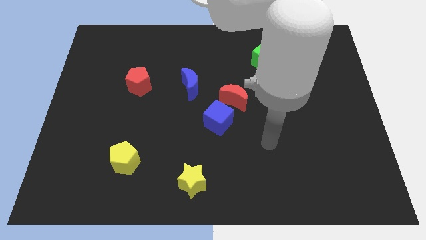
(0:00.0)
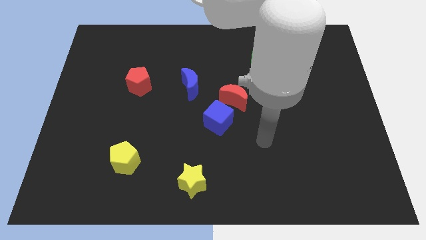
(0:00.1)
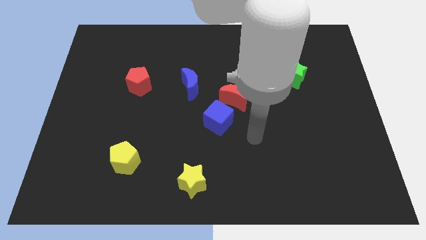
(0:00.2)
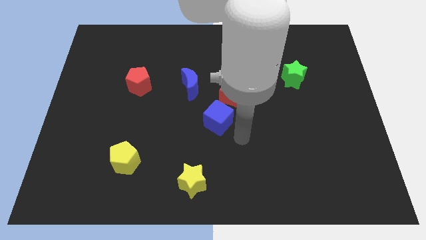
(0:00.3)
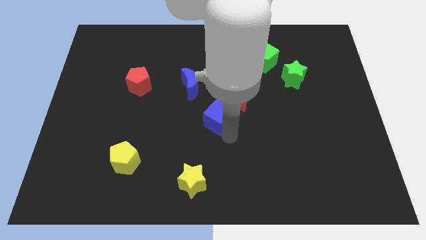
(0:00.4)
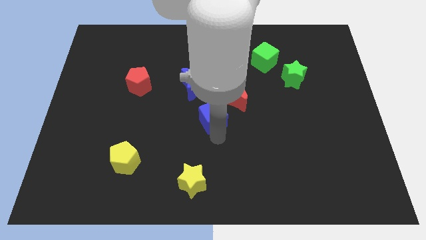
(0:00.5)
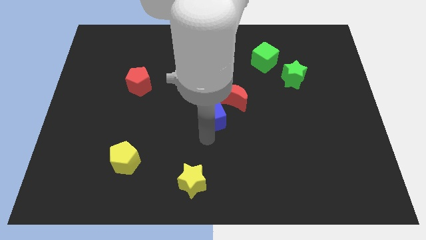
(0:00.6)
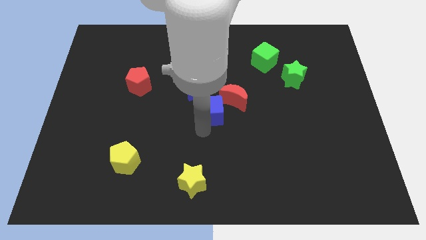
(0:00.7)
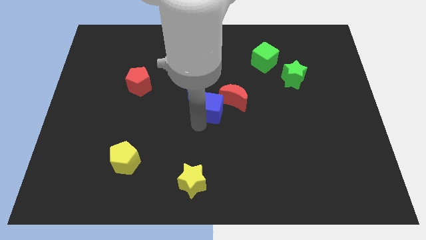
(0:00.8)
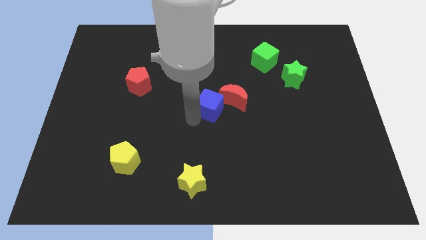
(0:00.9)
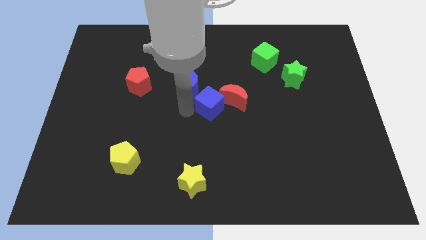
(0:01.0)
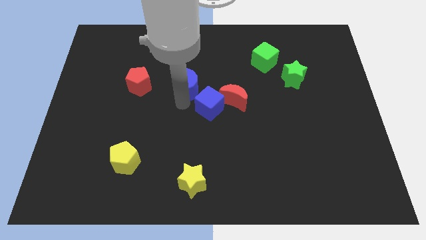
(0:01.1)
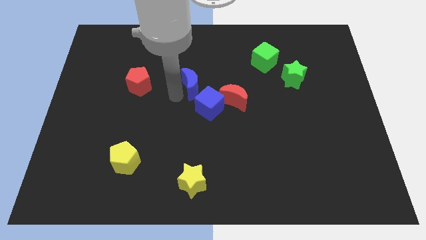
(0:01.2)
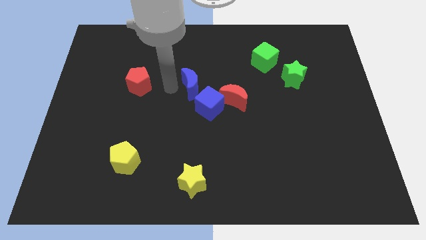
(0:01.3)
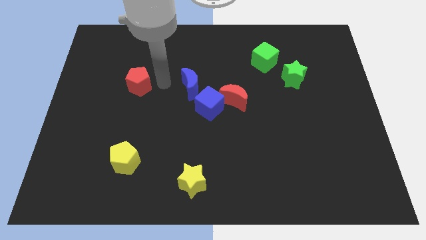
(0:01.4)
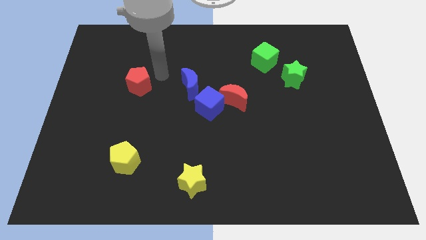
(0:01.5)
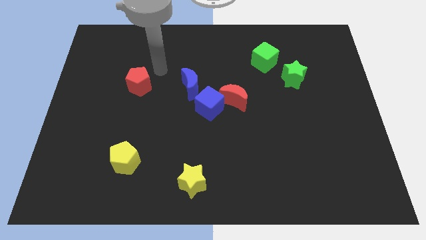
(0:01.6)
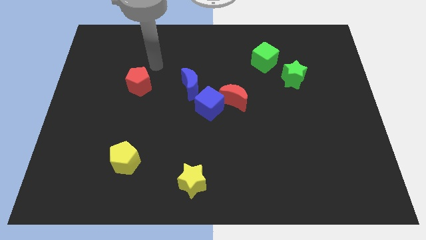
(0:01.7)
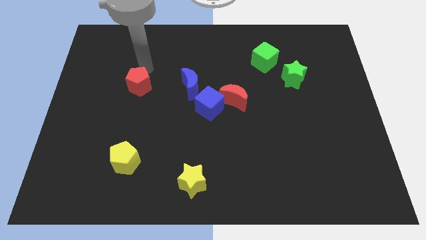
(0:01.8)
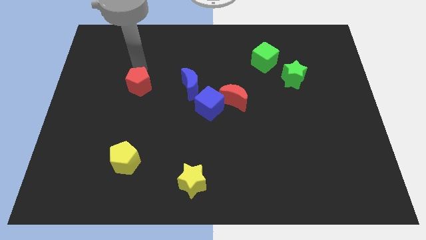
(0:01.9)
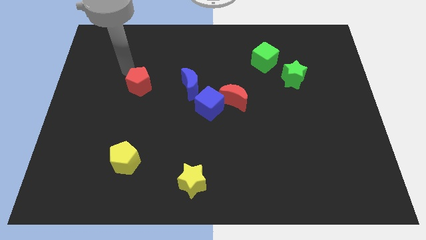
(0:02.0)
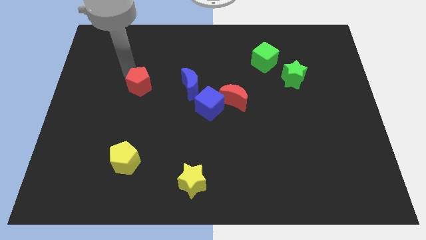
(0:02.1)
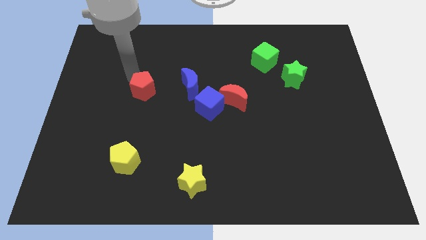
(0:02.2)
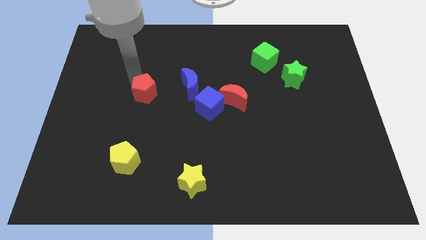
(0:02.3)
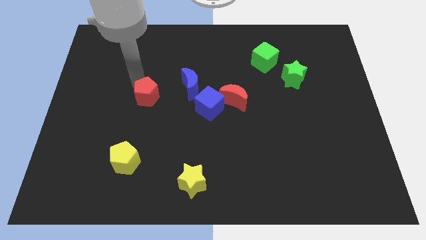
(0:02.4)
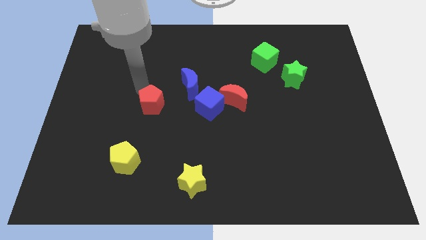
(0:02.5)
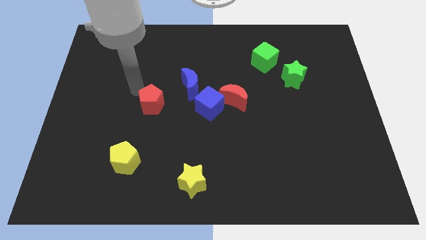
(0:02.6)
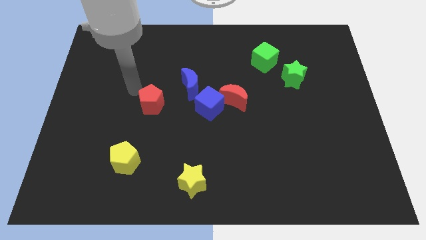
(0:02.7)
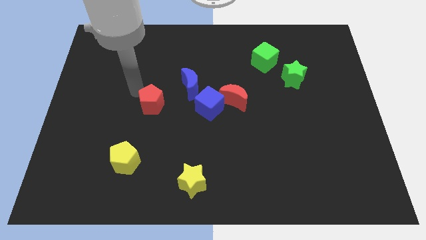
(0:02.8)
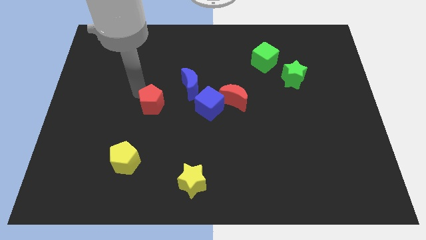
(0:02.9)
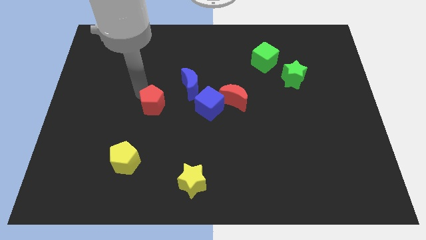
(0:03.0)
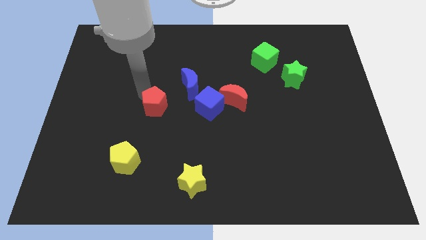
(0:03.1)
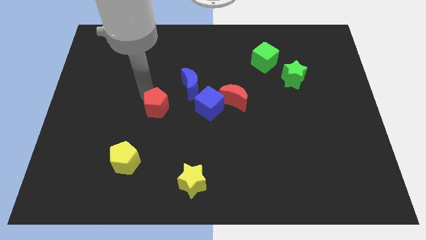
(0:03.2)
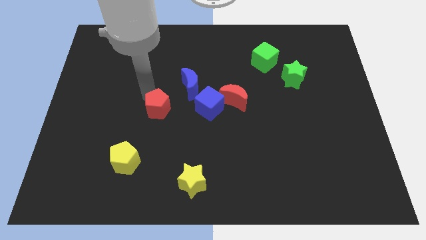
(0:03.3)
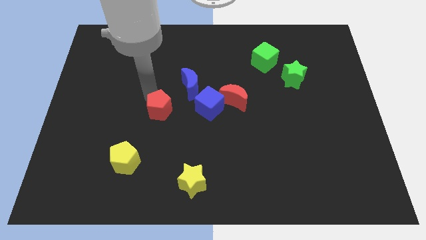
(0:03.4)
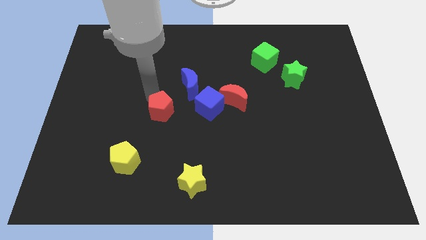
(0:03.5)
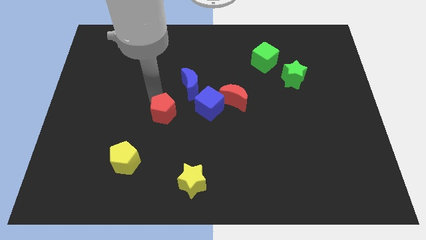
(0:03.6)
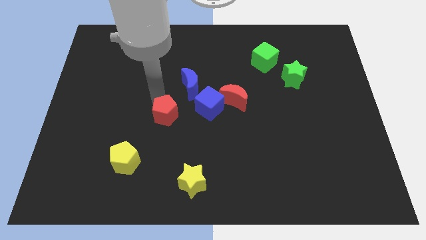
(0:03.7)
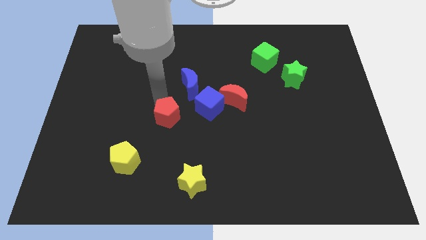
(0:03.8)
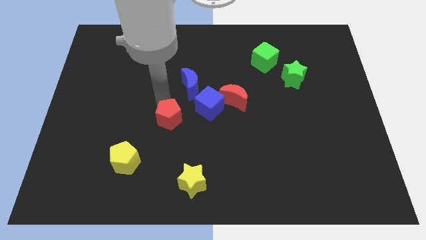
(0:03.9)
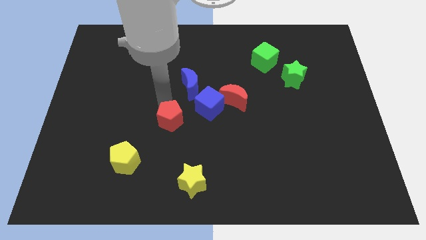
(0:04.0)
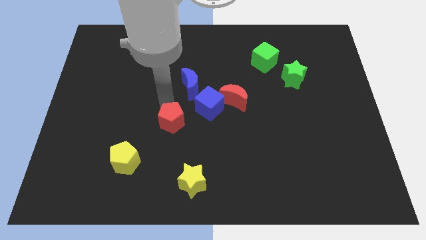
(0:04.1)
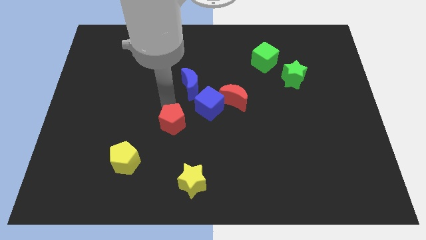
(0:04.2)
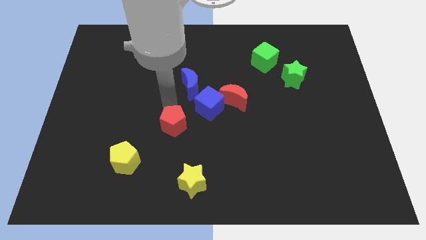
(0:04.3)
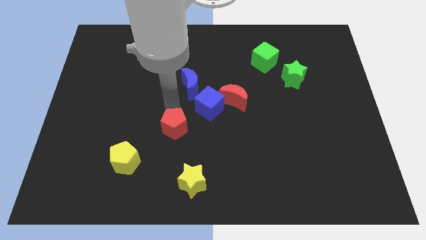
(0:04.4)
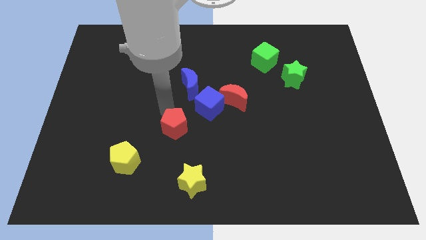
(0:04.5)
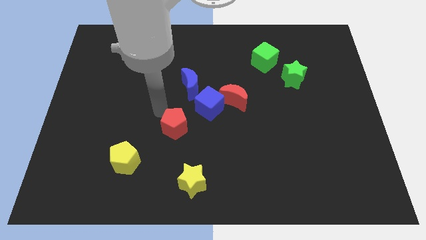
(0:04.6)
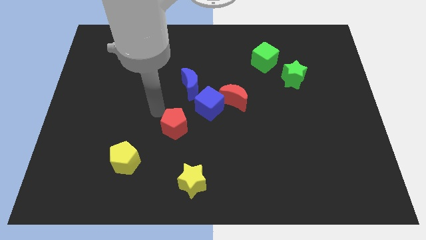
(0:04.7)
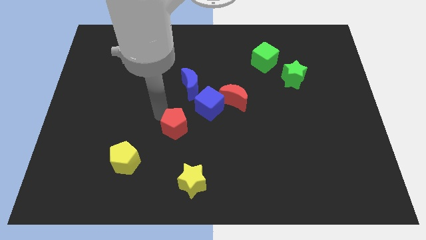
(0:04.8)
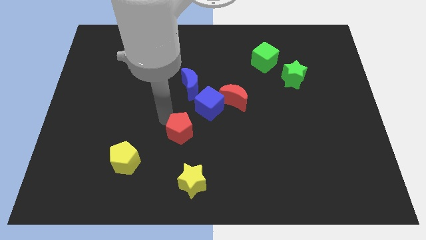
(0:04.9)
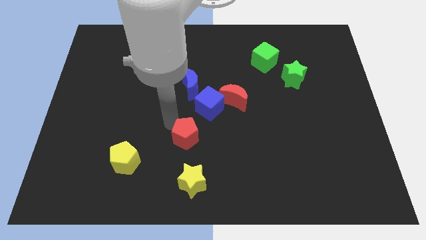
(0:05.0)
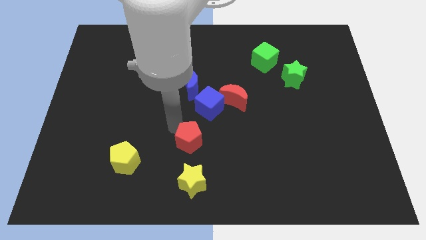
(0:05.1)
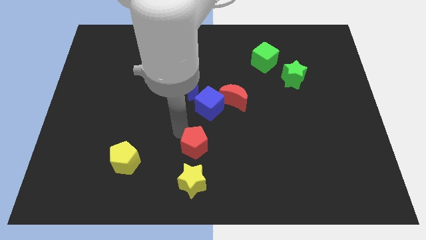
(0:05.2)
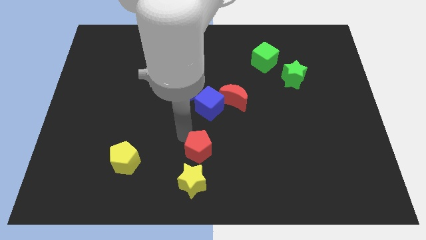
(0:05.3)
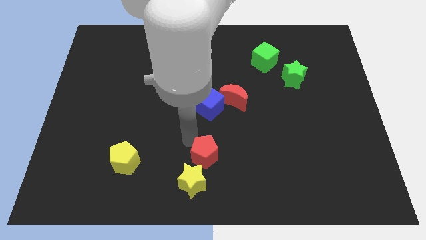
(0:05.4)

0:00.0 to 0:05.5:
move the red pentagon to the bottom

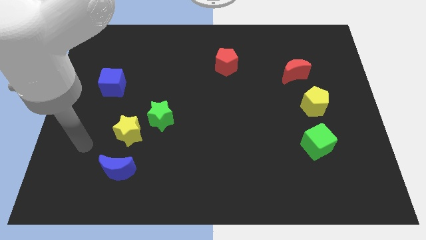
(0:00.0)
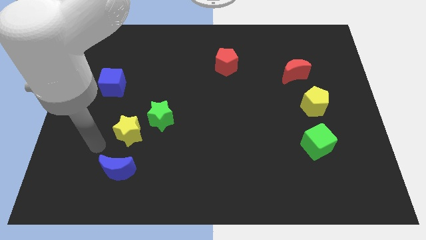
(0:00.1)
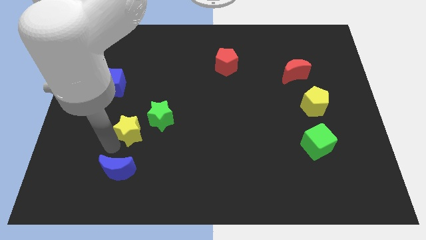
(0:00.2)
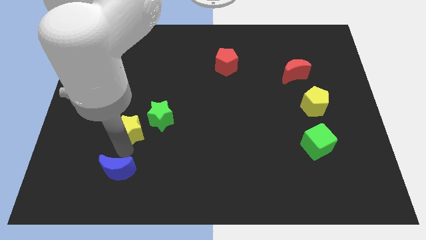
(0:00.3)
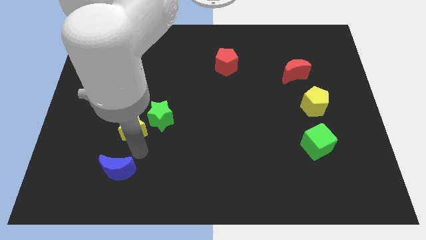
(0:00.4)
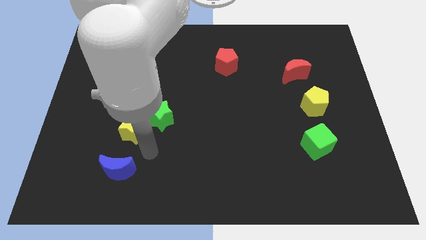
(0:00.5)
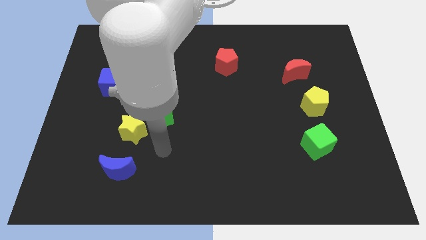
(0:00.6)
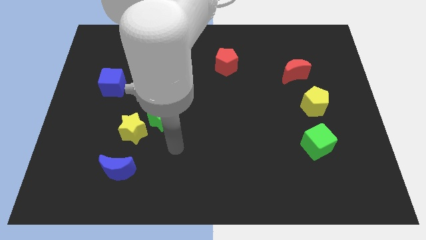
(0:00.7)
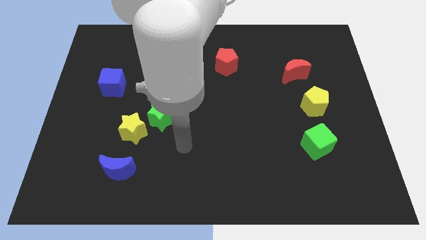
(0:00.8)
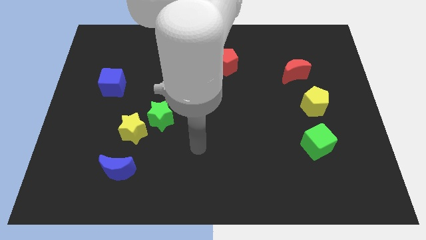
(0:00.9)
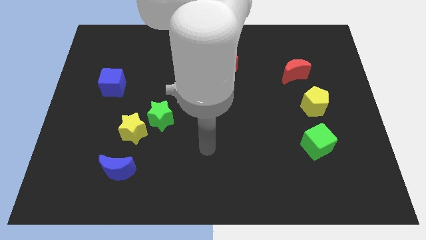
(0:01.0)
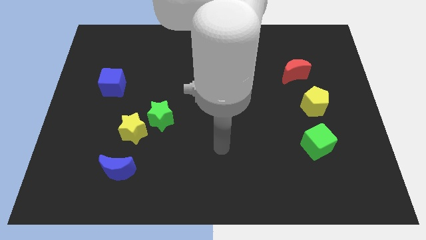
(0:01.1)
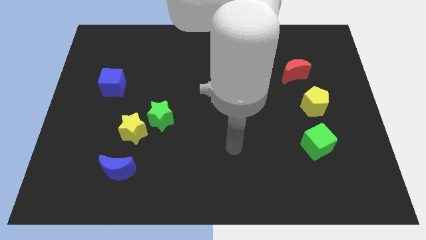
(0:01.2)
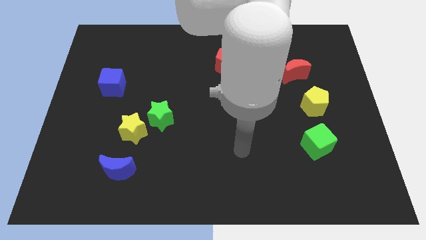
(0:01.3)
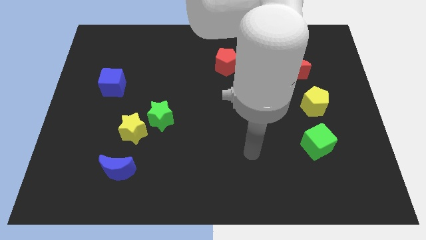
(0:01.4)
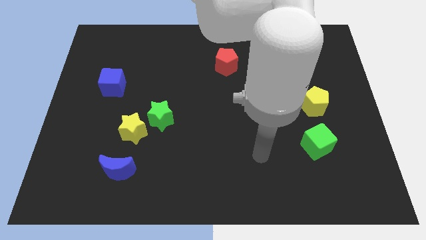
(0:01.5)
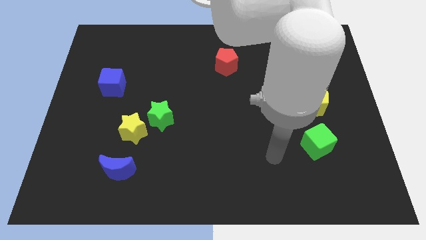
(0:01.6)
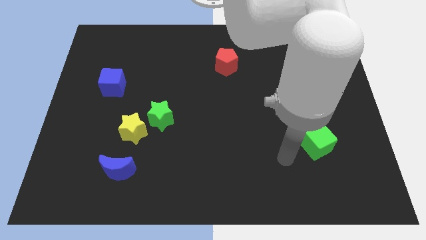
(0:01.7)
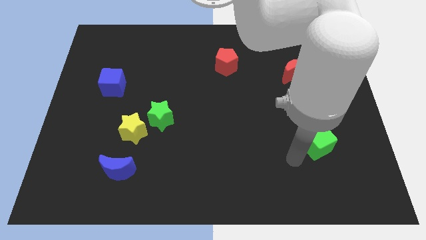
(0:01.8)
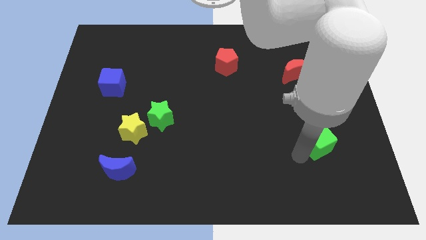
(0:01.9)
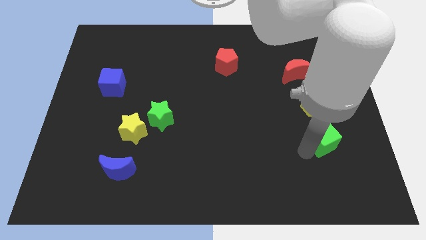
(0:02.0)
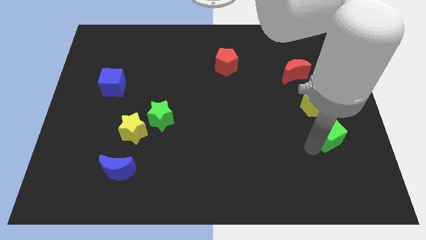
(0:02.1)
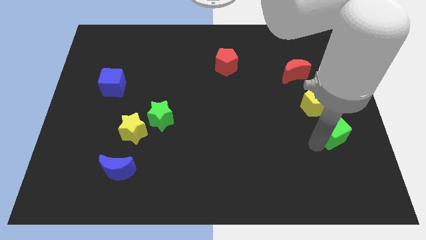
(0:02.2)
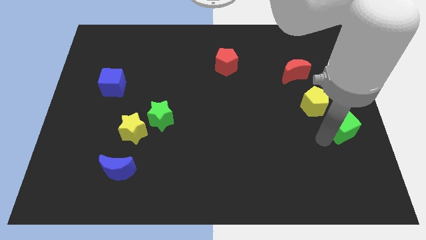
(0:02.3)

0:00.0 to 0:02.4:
move the green cube to the center right
